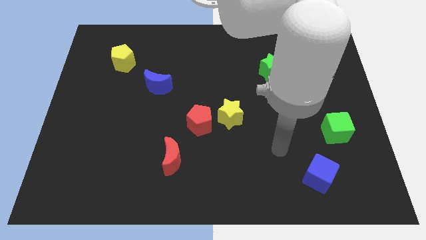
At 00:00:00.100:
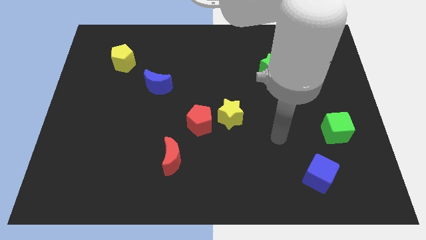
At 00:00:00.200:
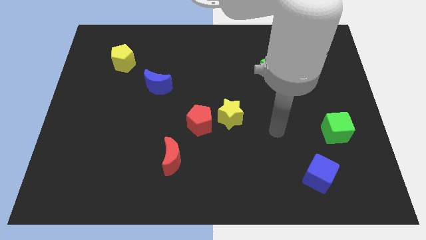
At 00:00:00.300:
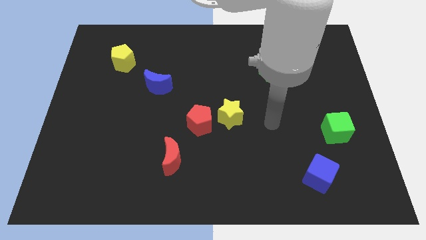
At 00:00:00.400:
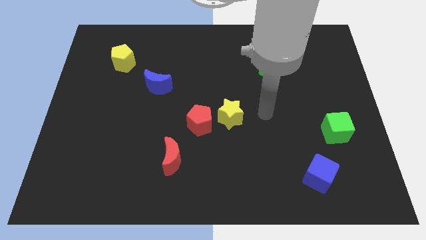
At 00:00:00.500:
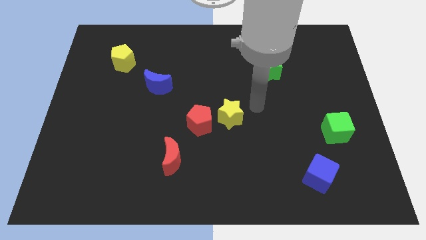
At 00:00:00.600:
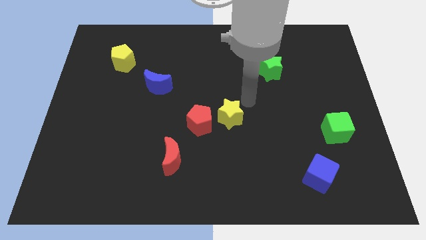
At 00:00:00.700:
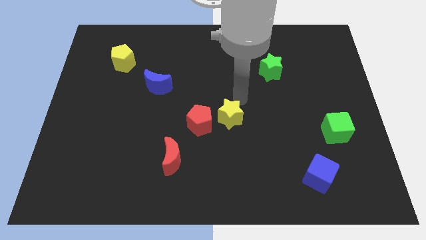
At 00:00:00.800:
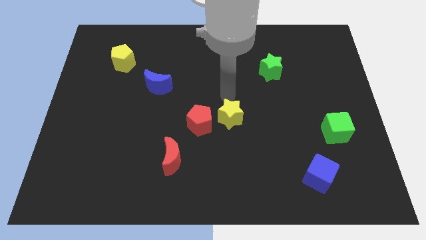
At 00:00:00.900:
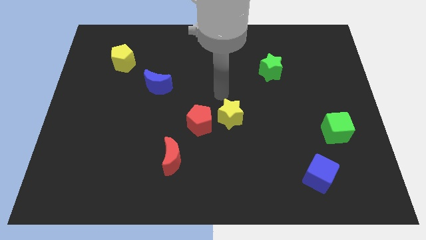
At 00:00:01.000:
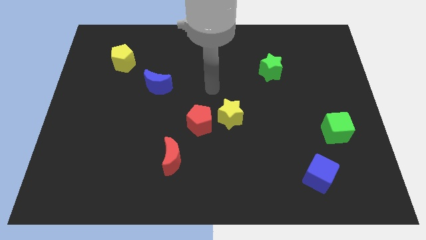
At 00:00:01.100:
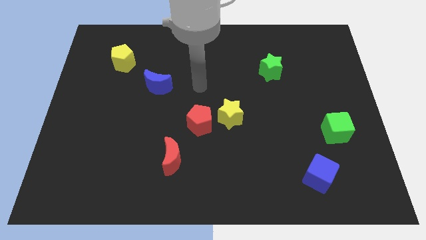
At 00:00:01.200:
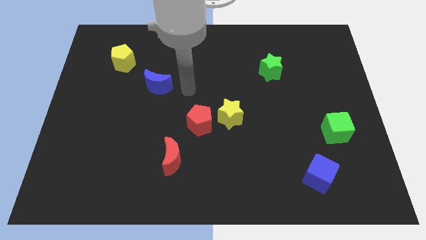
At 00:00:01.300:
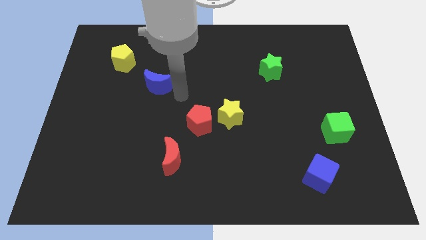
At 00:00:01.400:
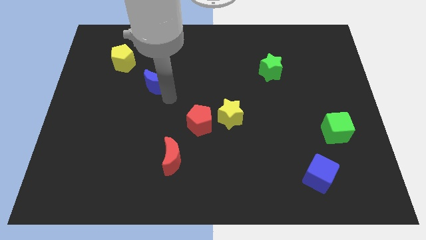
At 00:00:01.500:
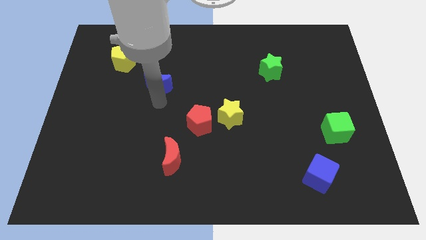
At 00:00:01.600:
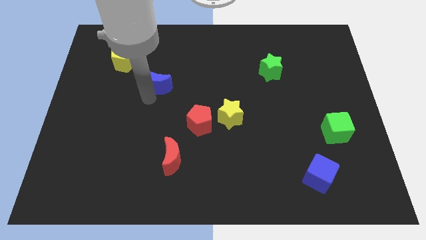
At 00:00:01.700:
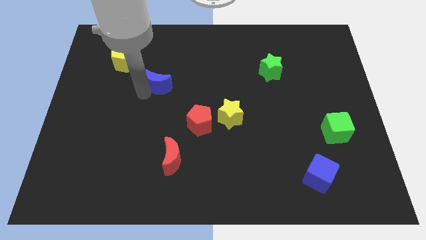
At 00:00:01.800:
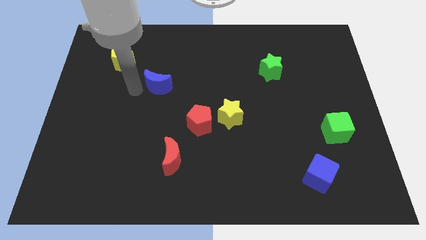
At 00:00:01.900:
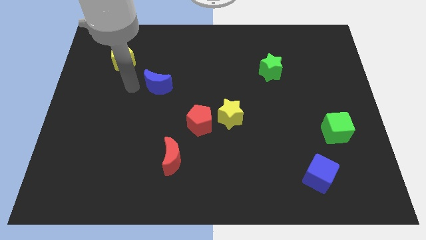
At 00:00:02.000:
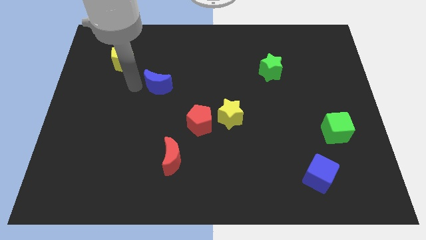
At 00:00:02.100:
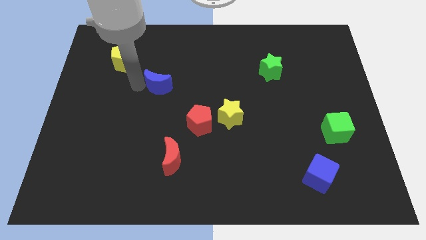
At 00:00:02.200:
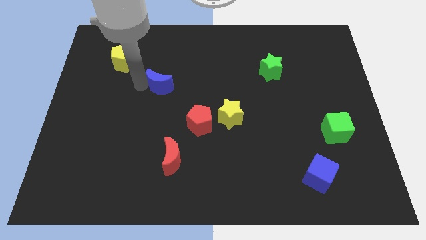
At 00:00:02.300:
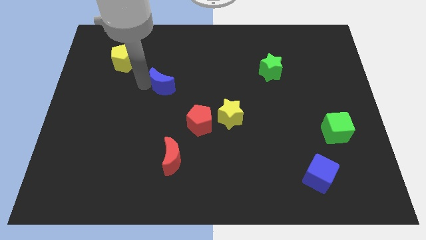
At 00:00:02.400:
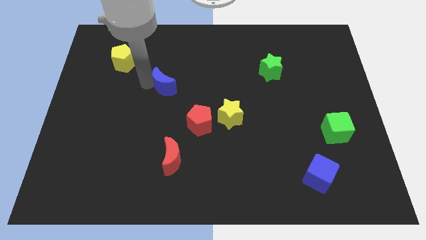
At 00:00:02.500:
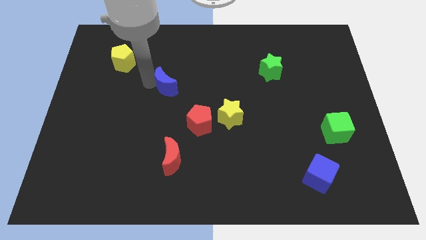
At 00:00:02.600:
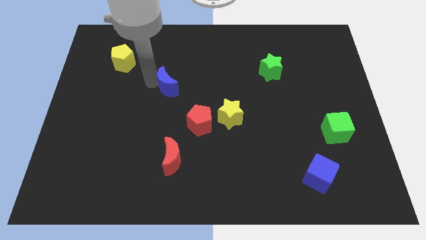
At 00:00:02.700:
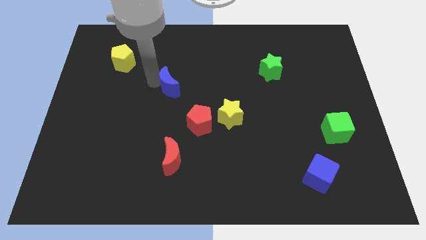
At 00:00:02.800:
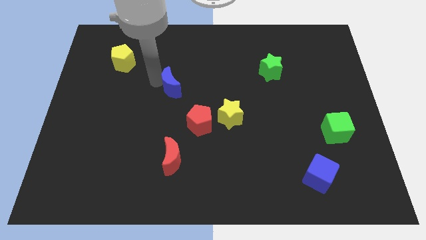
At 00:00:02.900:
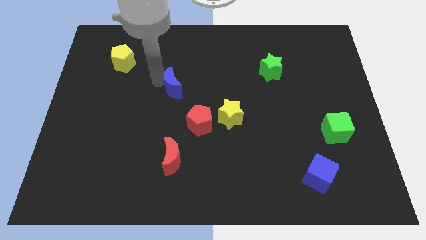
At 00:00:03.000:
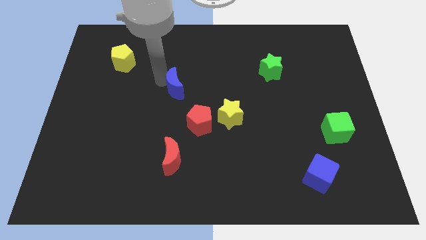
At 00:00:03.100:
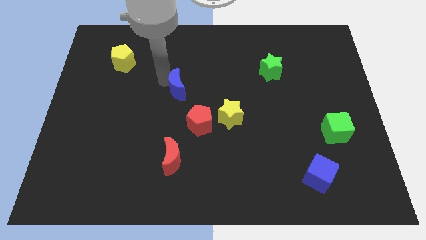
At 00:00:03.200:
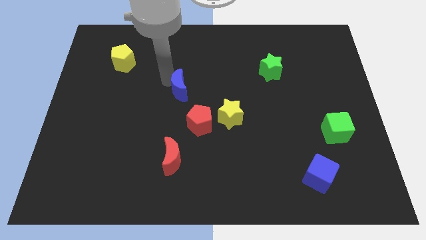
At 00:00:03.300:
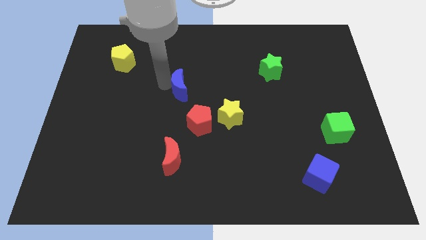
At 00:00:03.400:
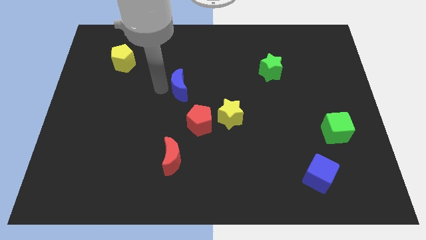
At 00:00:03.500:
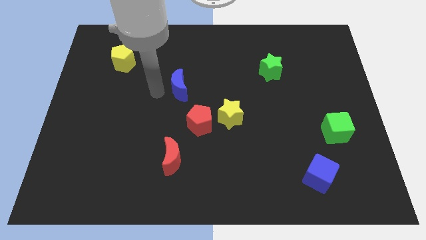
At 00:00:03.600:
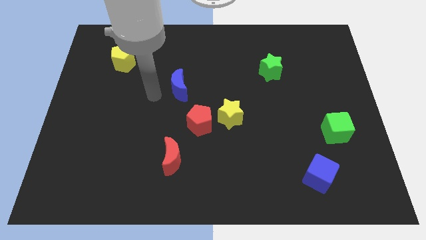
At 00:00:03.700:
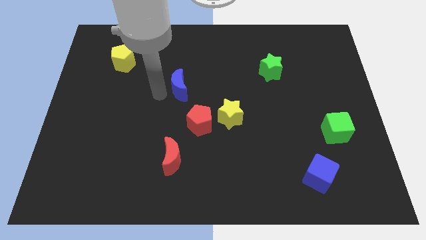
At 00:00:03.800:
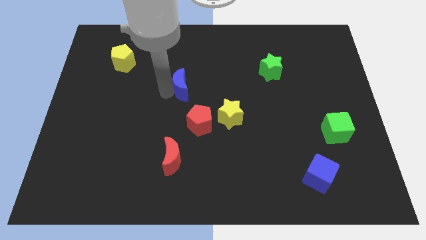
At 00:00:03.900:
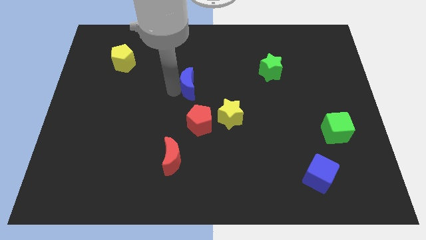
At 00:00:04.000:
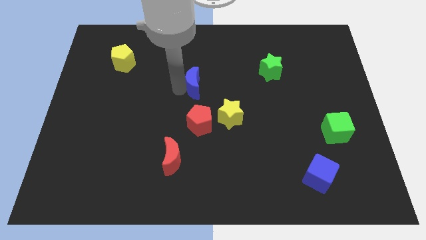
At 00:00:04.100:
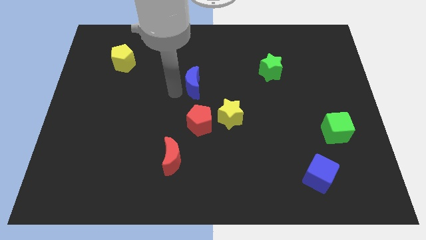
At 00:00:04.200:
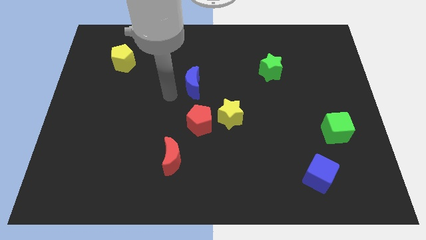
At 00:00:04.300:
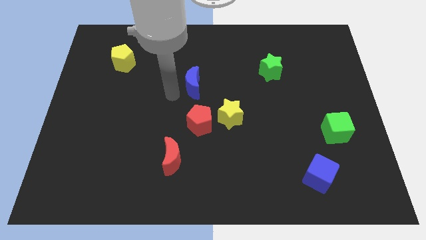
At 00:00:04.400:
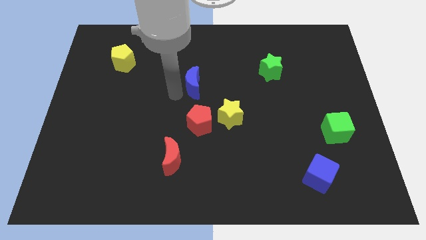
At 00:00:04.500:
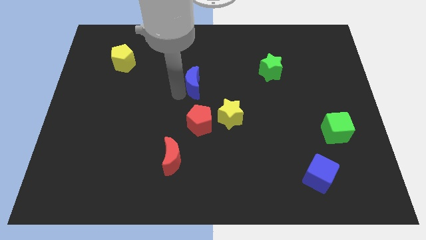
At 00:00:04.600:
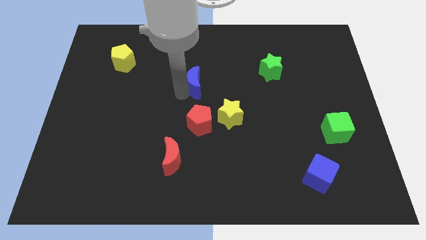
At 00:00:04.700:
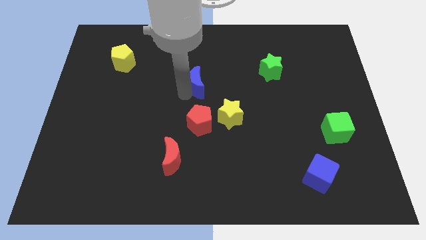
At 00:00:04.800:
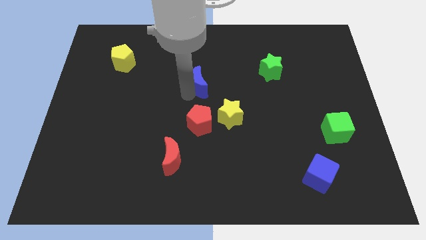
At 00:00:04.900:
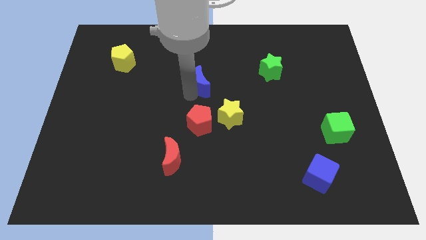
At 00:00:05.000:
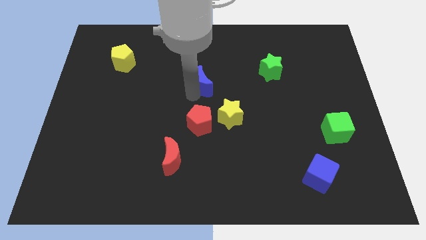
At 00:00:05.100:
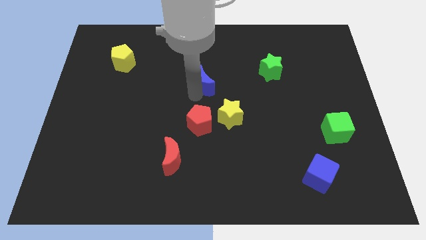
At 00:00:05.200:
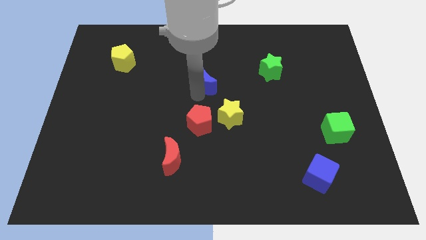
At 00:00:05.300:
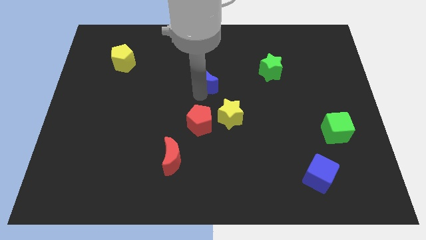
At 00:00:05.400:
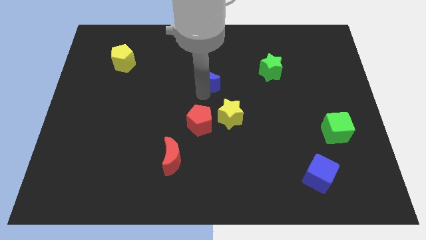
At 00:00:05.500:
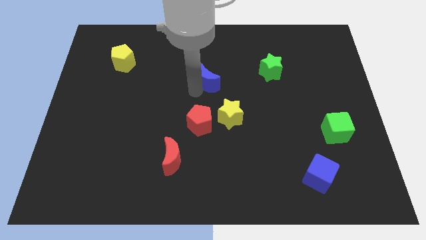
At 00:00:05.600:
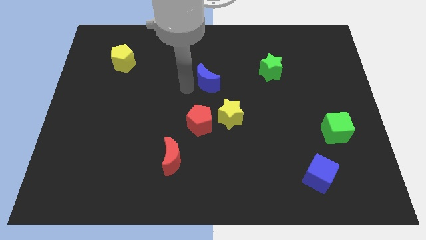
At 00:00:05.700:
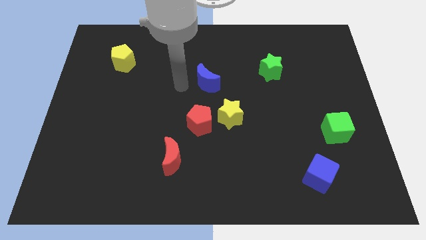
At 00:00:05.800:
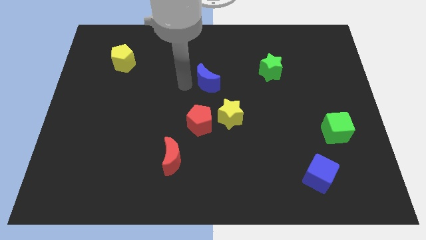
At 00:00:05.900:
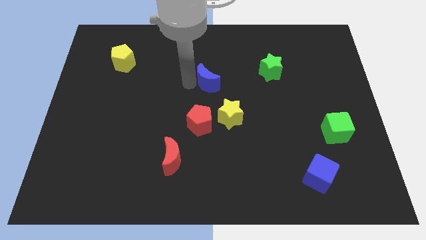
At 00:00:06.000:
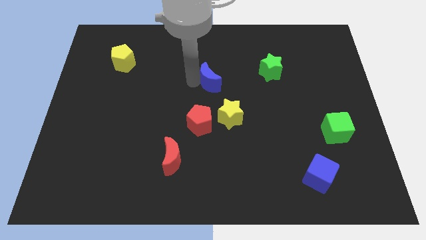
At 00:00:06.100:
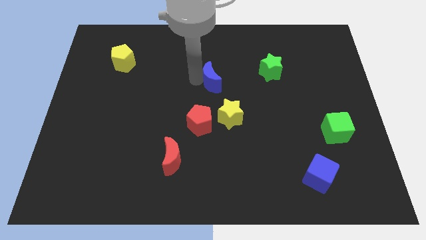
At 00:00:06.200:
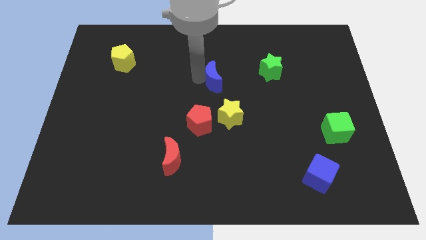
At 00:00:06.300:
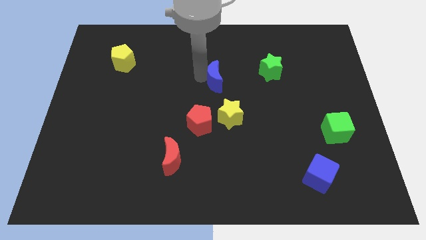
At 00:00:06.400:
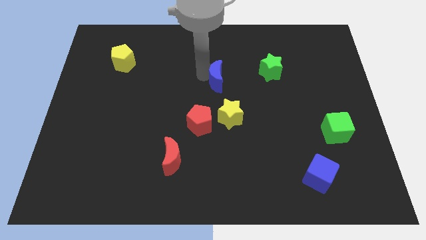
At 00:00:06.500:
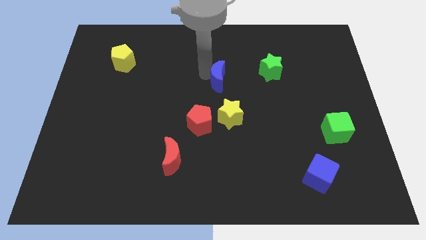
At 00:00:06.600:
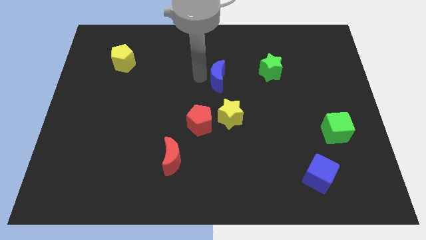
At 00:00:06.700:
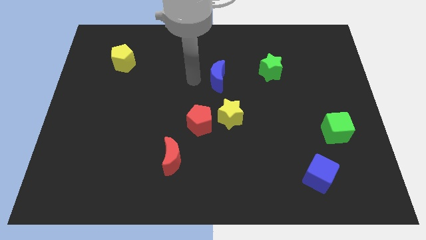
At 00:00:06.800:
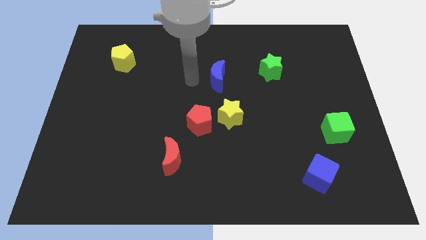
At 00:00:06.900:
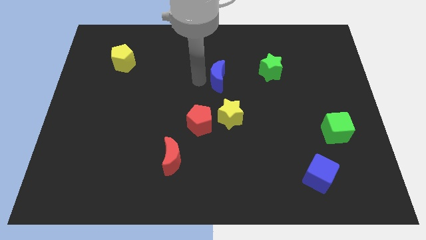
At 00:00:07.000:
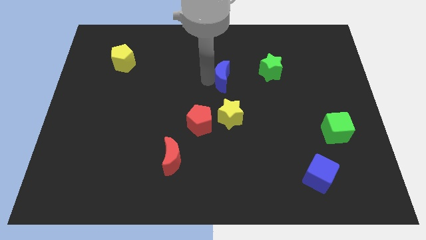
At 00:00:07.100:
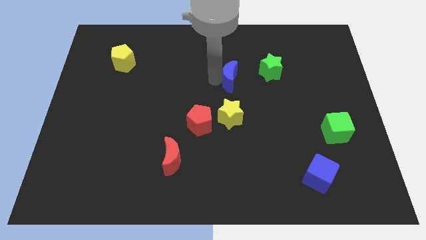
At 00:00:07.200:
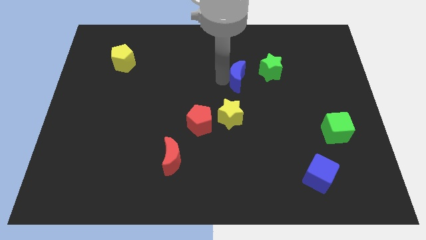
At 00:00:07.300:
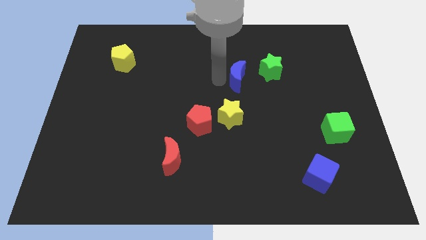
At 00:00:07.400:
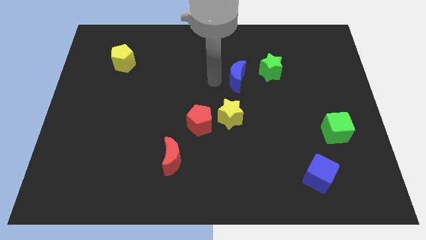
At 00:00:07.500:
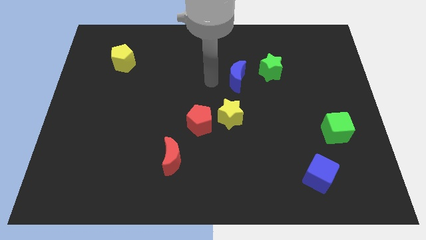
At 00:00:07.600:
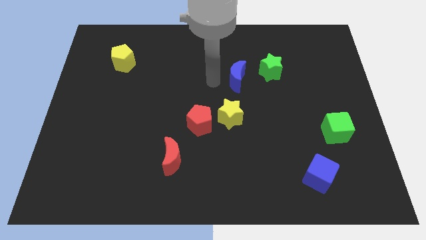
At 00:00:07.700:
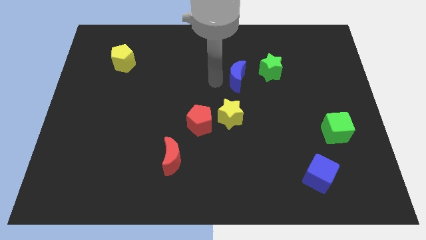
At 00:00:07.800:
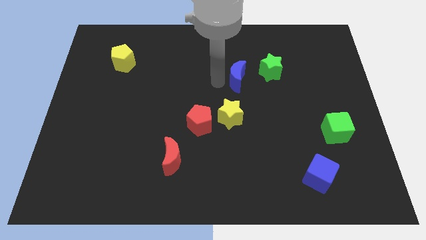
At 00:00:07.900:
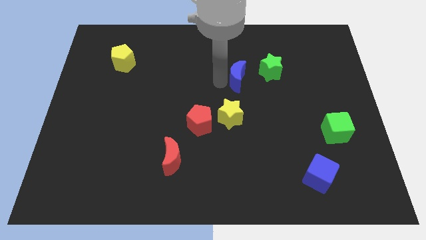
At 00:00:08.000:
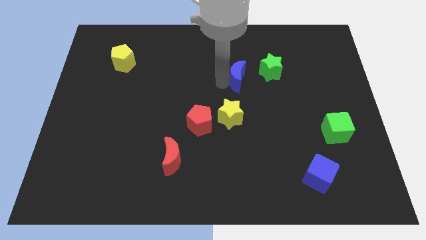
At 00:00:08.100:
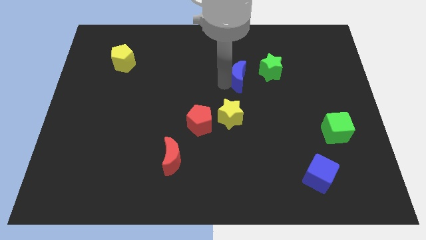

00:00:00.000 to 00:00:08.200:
move the blue moon to the right
